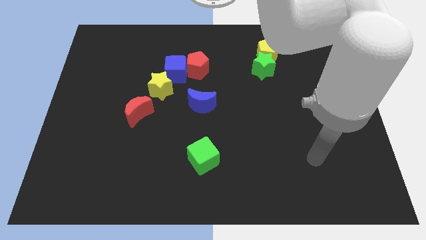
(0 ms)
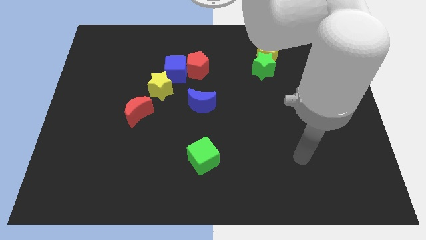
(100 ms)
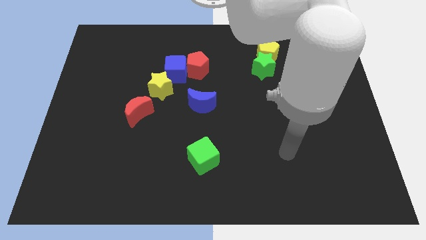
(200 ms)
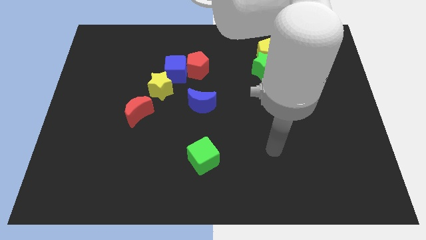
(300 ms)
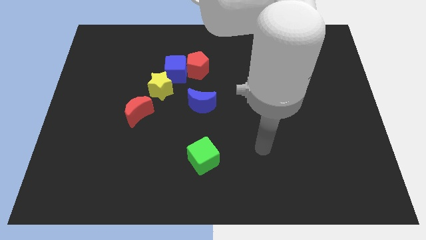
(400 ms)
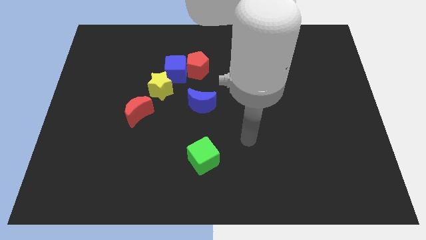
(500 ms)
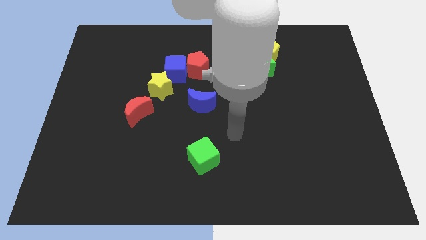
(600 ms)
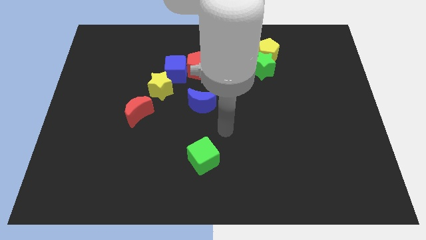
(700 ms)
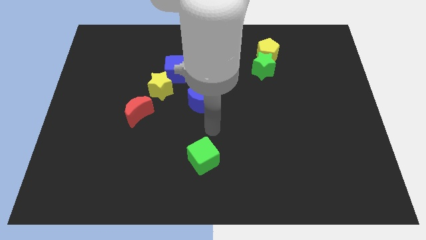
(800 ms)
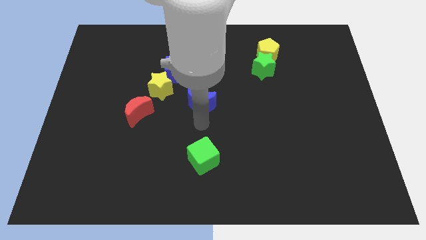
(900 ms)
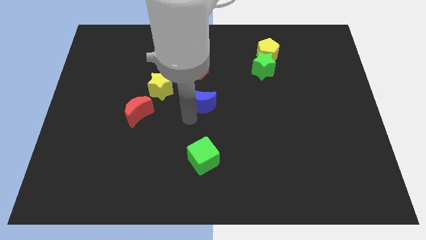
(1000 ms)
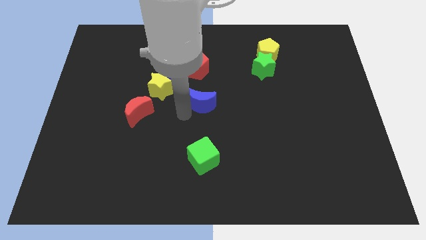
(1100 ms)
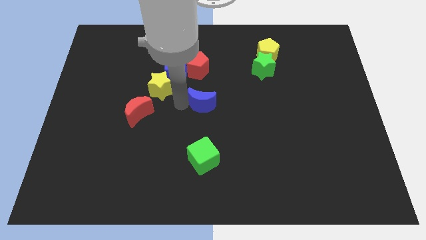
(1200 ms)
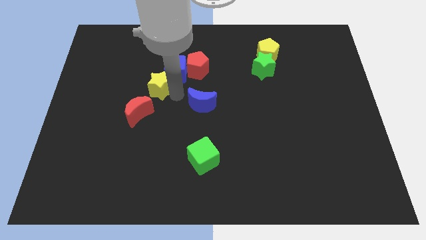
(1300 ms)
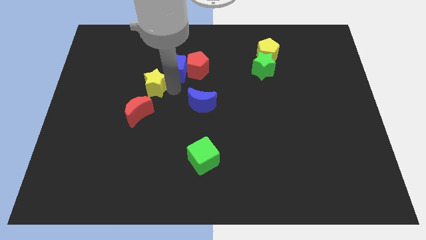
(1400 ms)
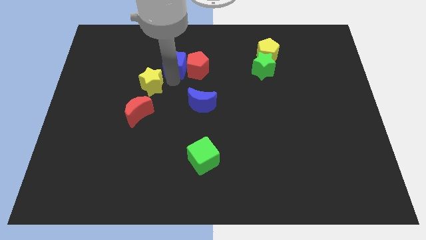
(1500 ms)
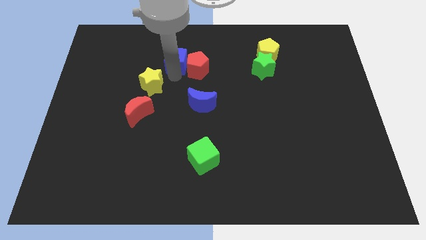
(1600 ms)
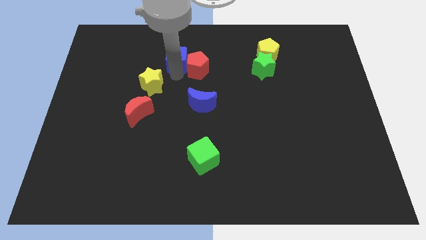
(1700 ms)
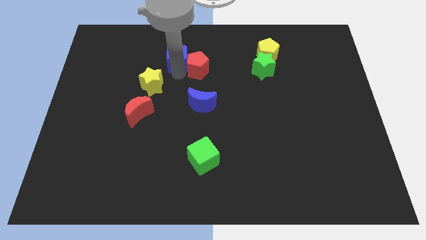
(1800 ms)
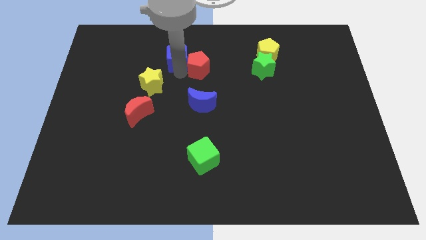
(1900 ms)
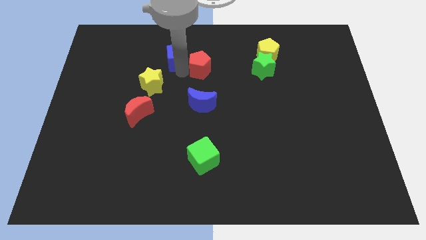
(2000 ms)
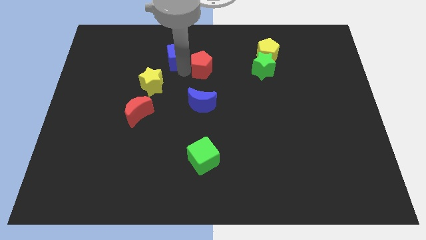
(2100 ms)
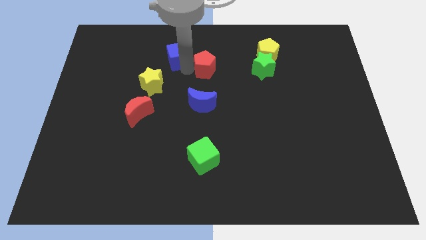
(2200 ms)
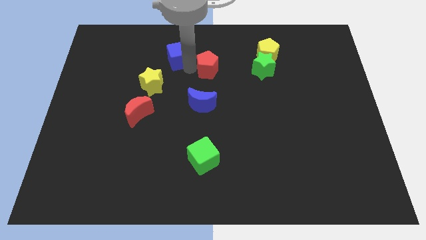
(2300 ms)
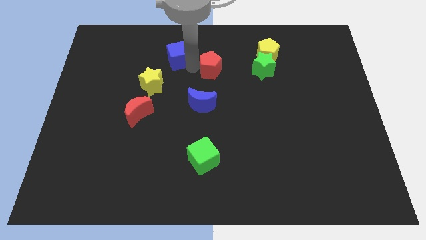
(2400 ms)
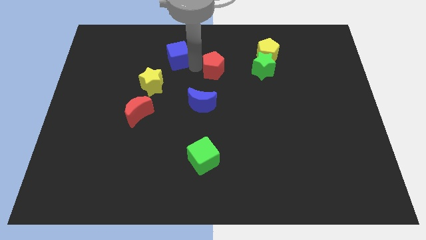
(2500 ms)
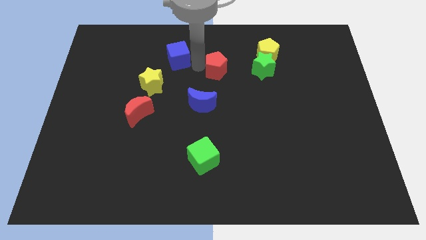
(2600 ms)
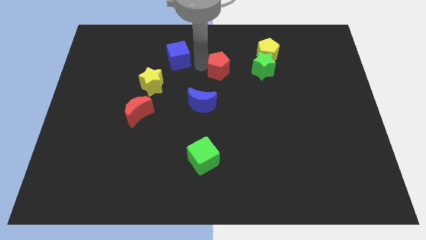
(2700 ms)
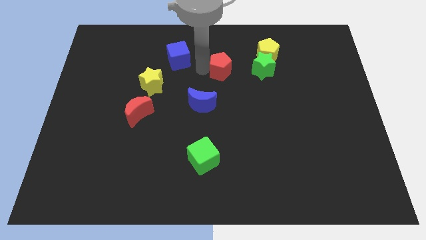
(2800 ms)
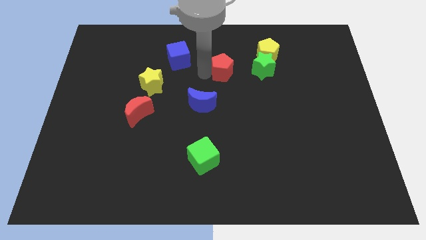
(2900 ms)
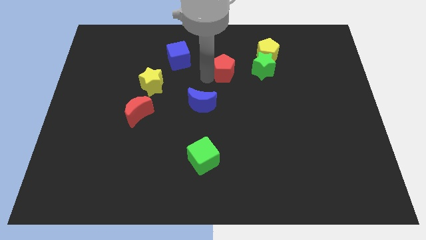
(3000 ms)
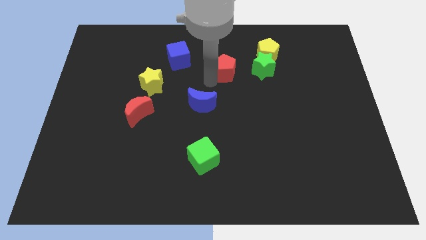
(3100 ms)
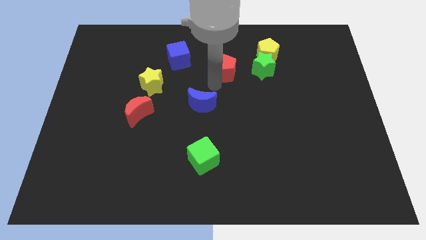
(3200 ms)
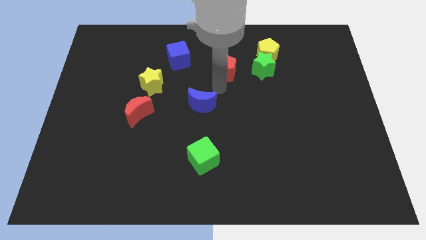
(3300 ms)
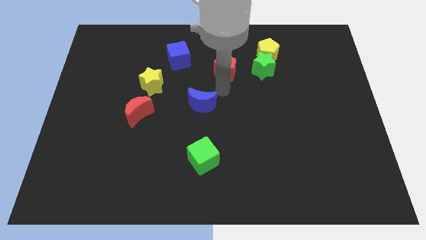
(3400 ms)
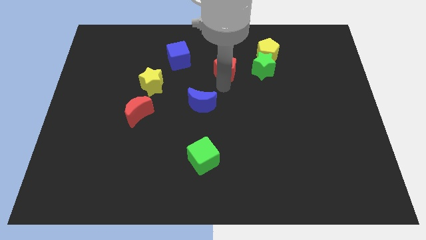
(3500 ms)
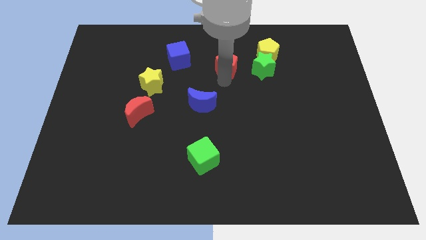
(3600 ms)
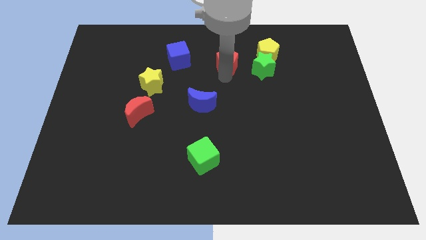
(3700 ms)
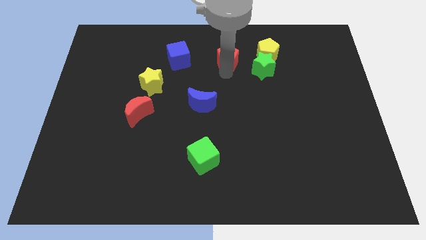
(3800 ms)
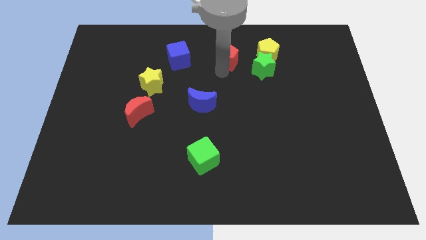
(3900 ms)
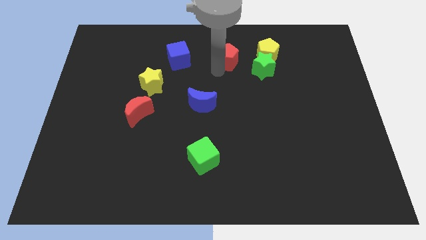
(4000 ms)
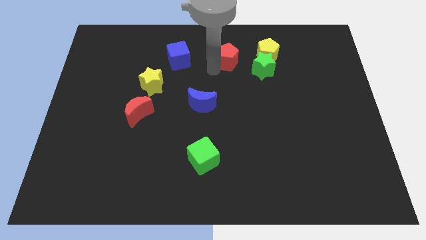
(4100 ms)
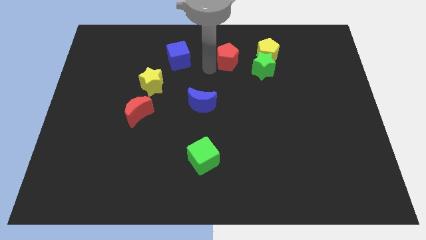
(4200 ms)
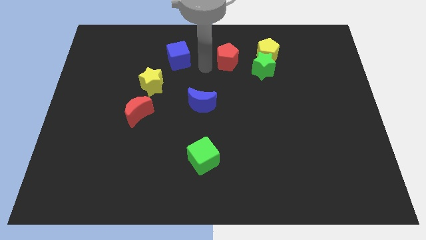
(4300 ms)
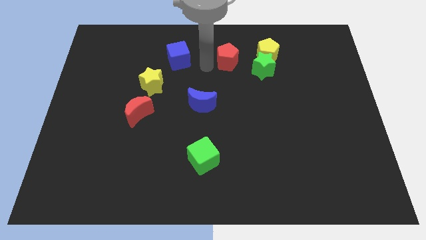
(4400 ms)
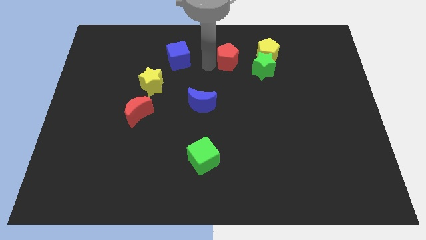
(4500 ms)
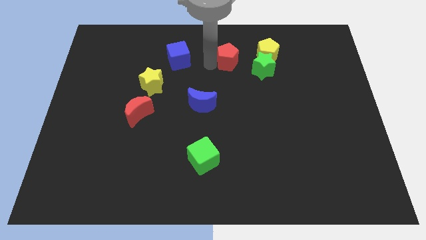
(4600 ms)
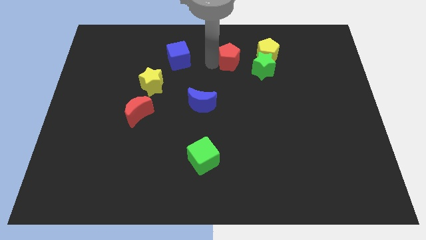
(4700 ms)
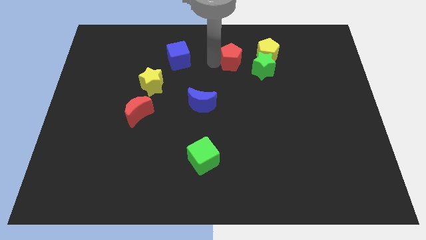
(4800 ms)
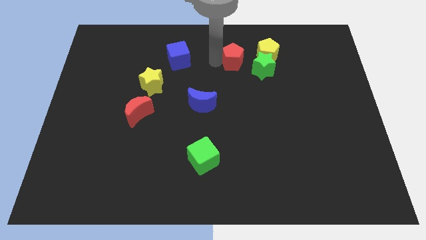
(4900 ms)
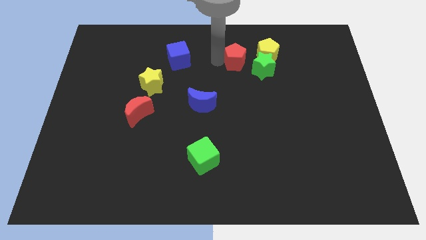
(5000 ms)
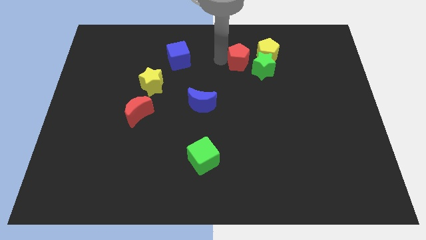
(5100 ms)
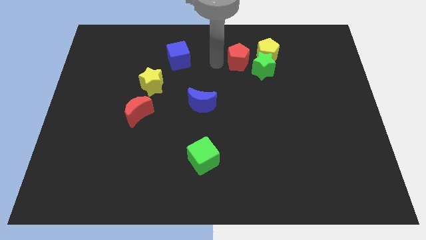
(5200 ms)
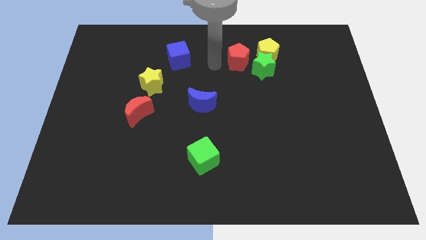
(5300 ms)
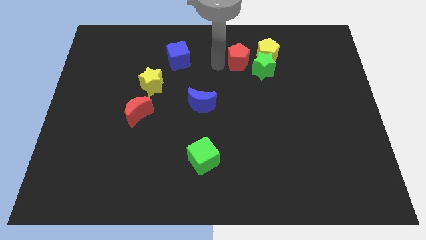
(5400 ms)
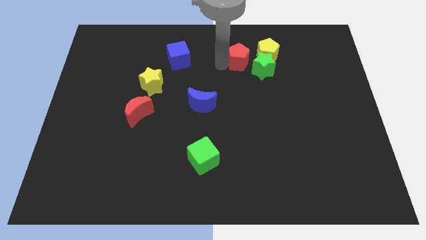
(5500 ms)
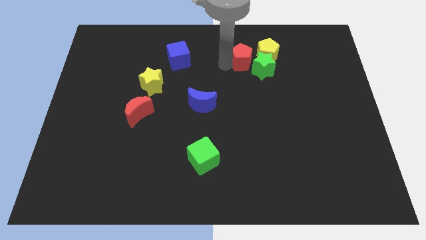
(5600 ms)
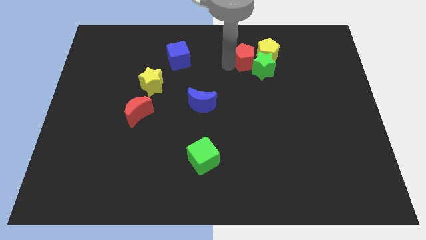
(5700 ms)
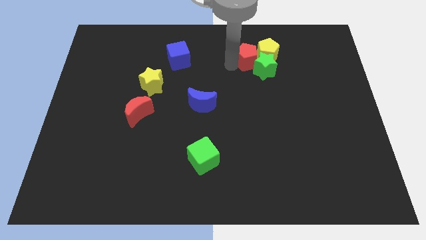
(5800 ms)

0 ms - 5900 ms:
push the red pentagon next to the yellow pentagon

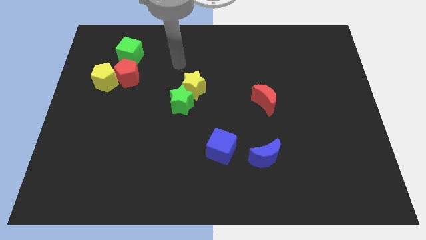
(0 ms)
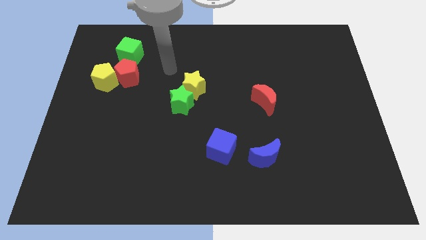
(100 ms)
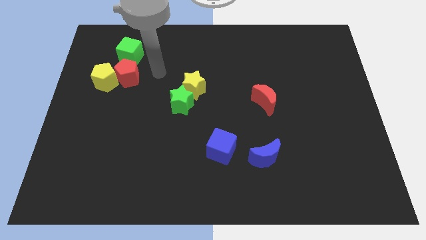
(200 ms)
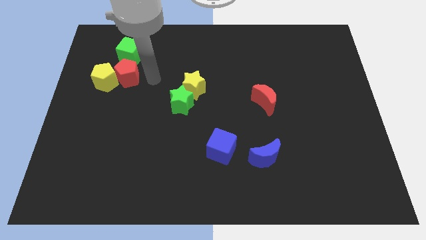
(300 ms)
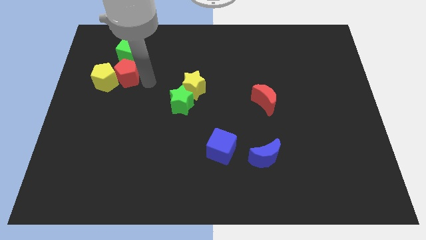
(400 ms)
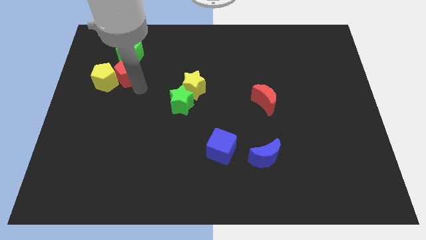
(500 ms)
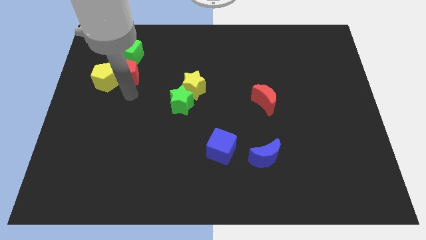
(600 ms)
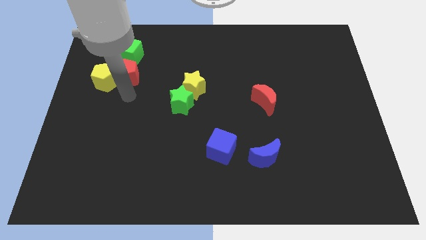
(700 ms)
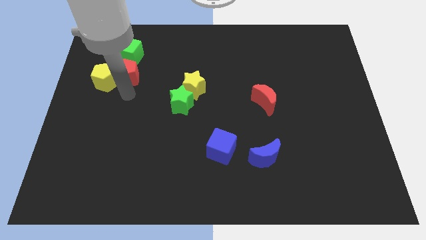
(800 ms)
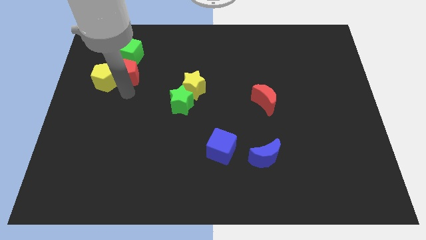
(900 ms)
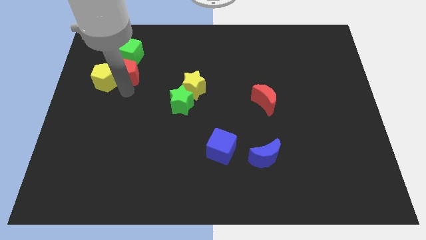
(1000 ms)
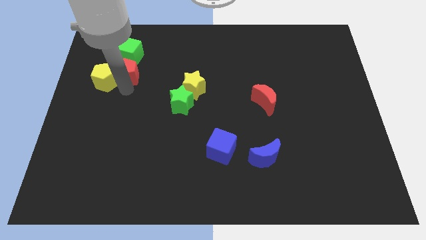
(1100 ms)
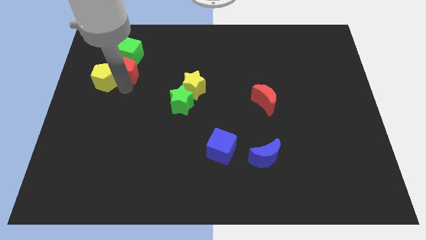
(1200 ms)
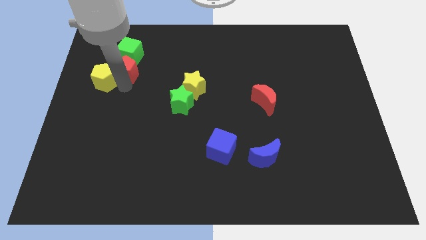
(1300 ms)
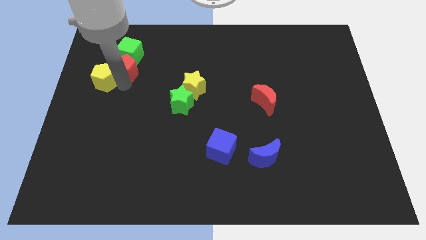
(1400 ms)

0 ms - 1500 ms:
push the red pentagon to the green cube
